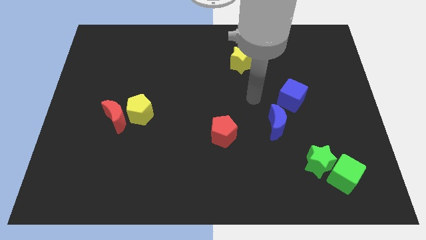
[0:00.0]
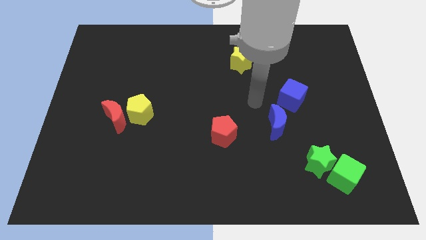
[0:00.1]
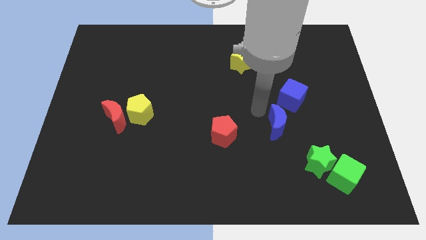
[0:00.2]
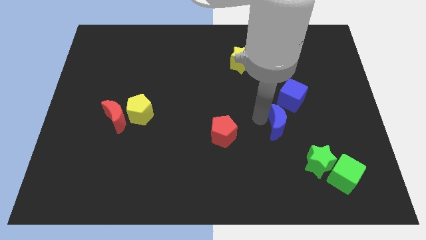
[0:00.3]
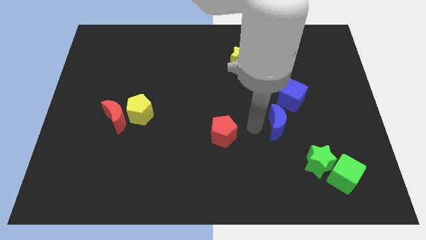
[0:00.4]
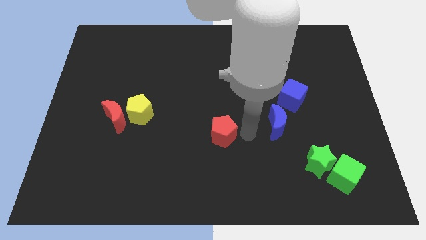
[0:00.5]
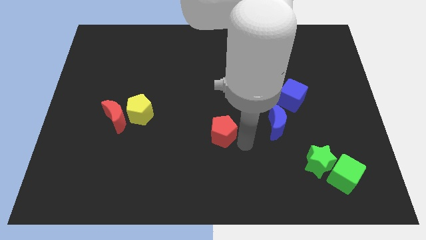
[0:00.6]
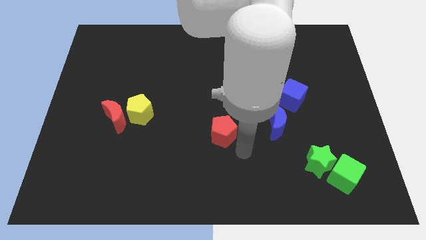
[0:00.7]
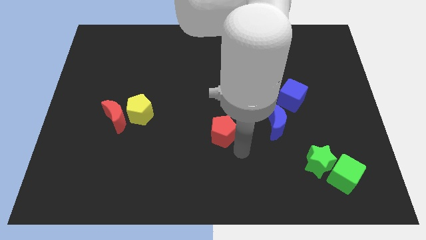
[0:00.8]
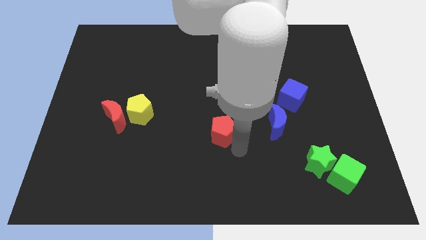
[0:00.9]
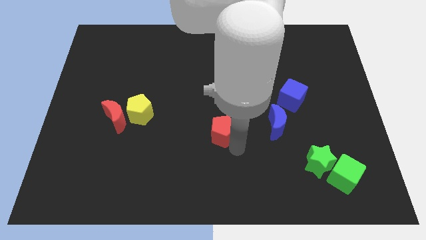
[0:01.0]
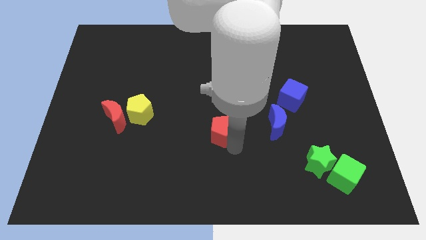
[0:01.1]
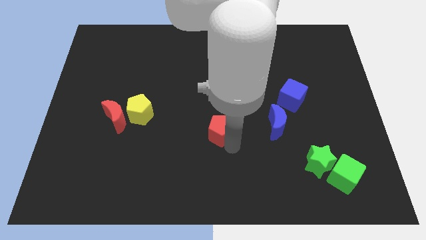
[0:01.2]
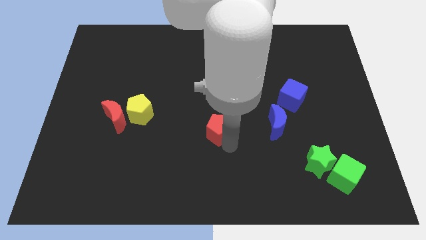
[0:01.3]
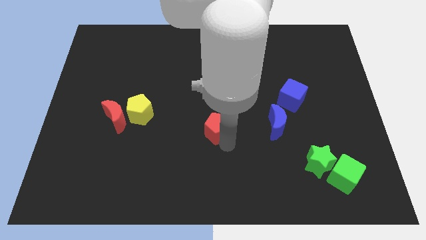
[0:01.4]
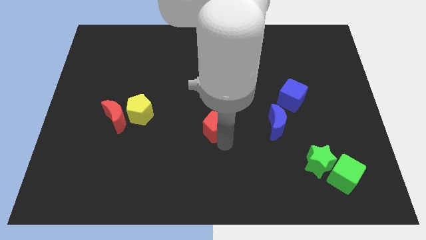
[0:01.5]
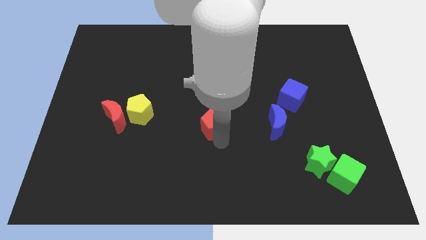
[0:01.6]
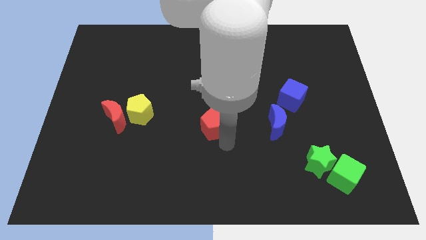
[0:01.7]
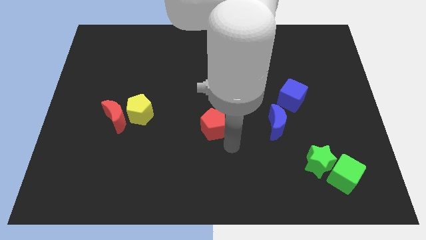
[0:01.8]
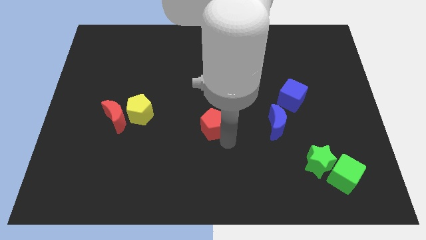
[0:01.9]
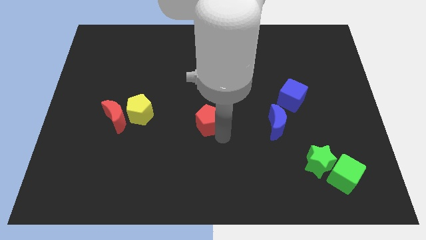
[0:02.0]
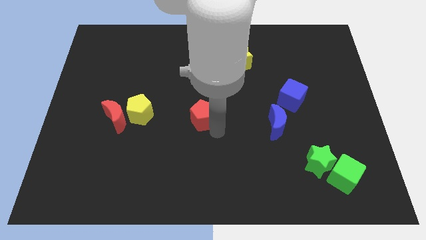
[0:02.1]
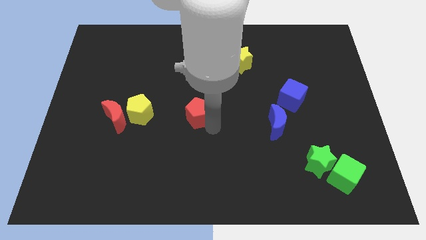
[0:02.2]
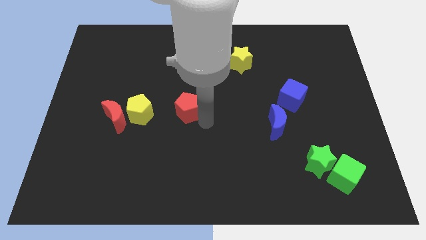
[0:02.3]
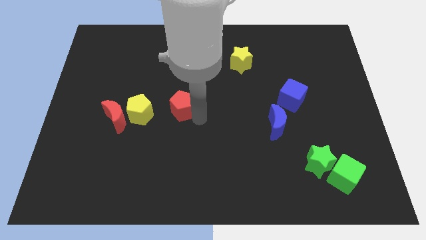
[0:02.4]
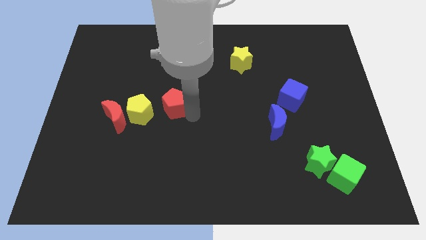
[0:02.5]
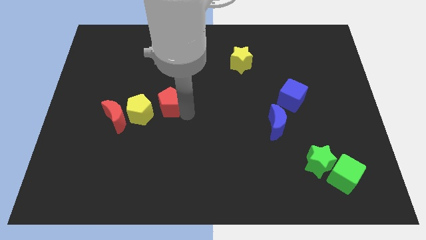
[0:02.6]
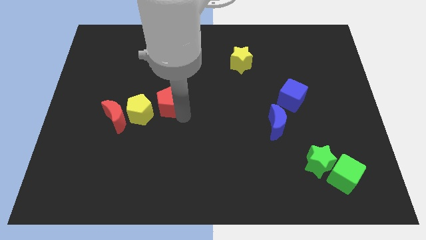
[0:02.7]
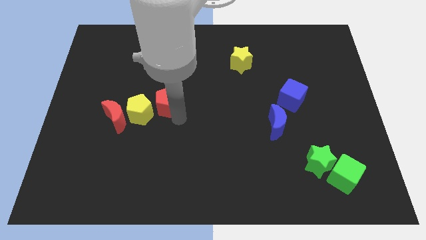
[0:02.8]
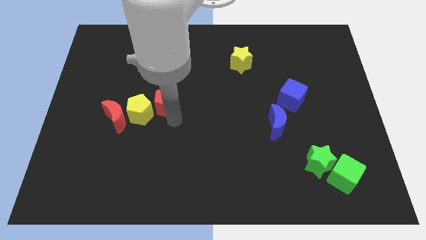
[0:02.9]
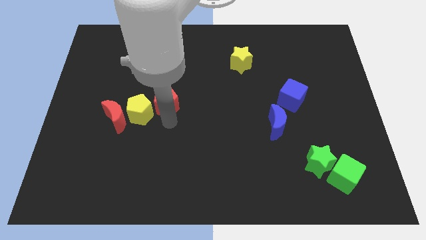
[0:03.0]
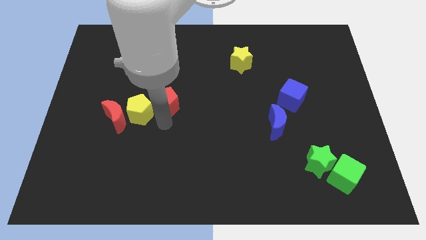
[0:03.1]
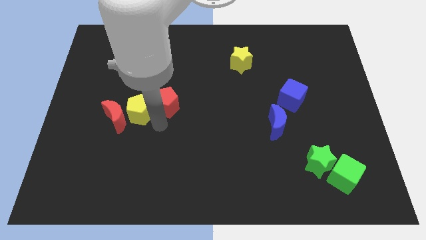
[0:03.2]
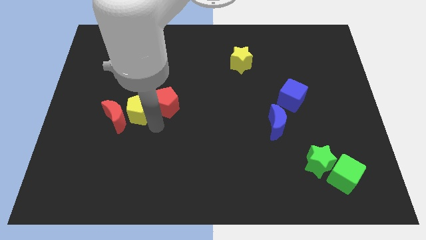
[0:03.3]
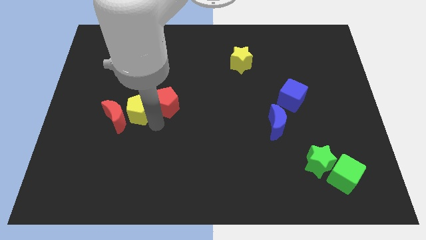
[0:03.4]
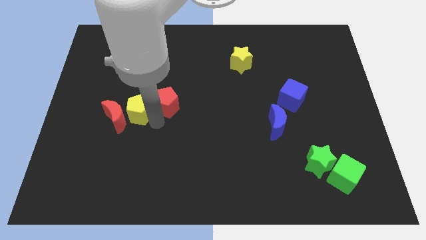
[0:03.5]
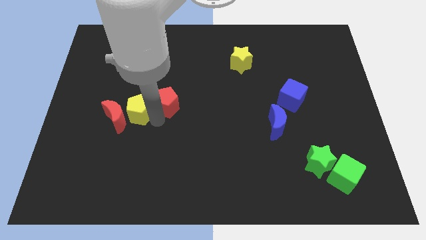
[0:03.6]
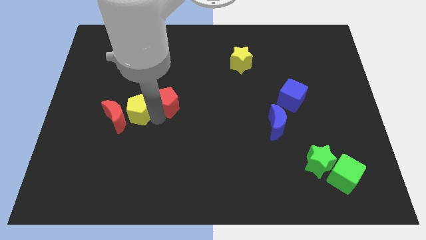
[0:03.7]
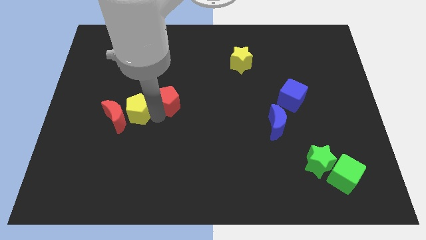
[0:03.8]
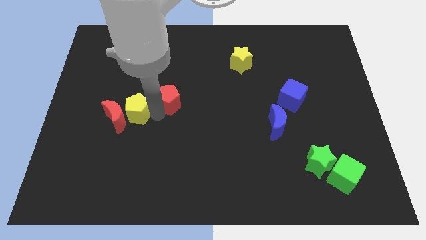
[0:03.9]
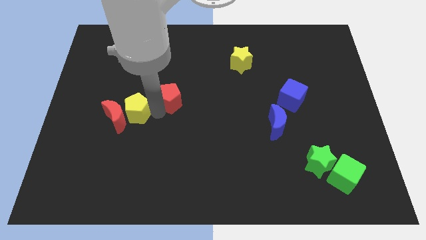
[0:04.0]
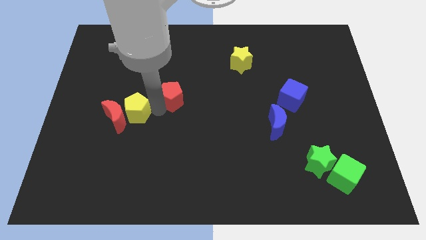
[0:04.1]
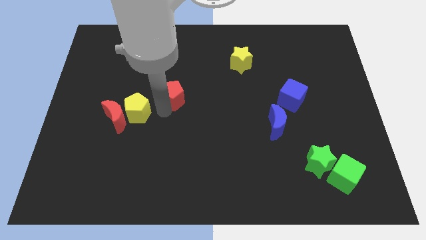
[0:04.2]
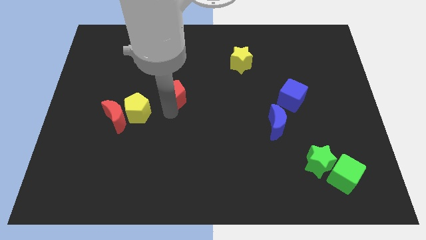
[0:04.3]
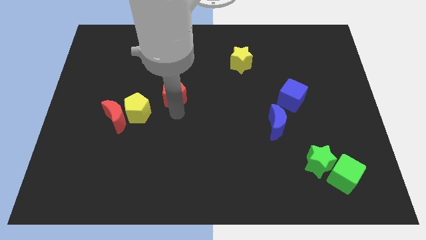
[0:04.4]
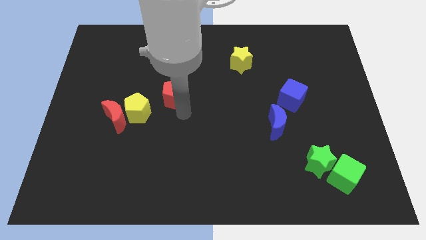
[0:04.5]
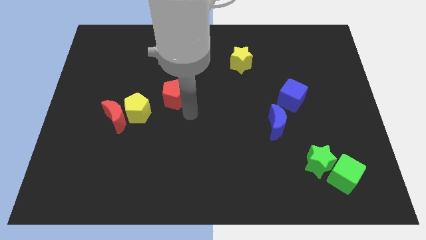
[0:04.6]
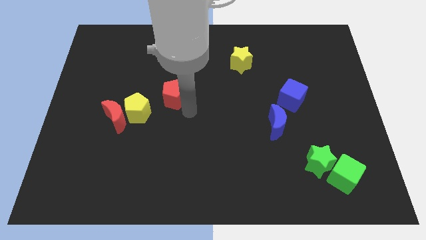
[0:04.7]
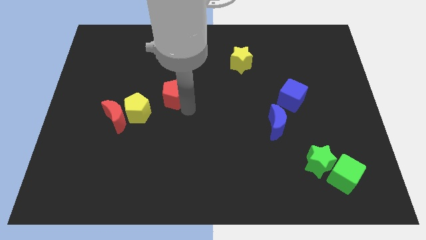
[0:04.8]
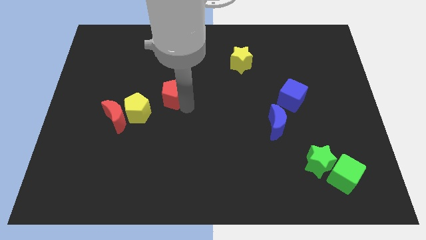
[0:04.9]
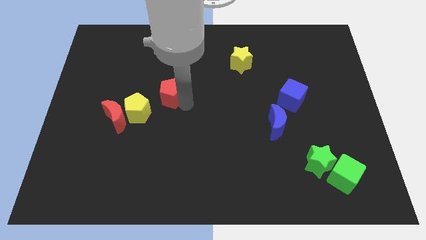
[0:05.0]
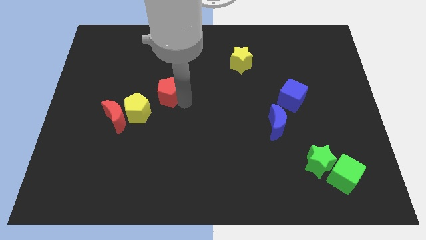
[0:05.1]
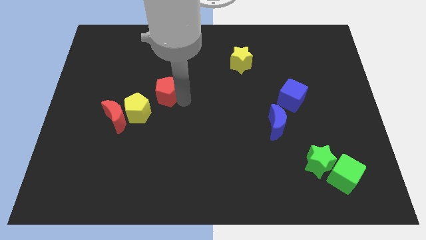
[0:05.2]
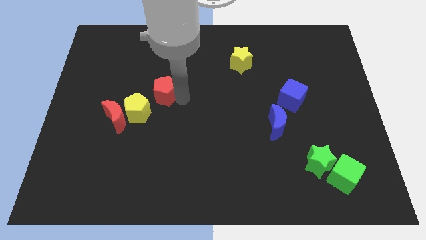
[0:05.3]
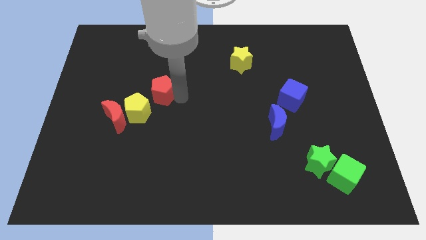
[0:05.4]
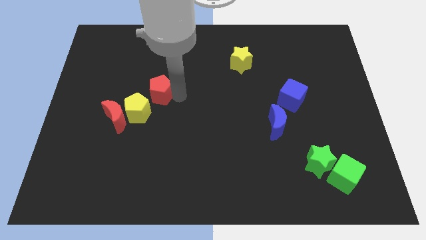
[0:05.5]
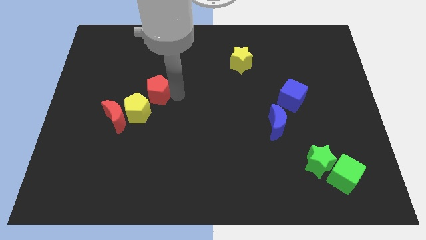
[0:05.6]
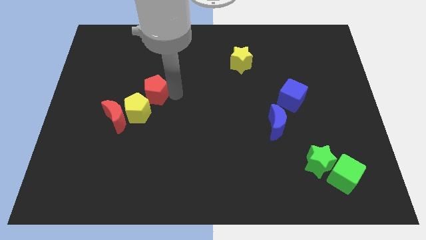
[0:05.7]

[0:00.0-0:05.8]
slide the red pentagon diagonally up and to the left

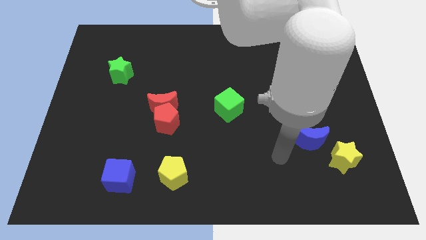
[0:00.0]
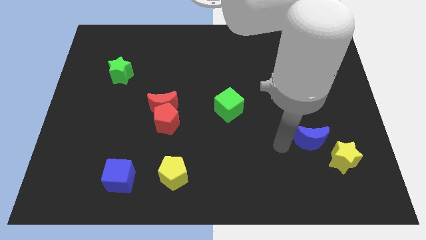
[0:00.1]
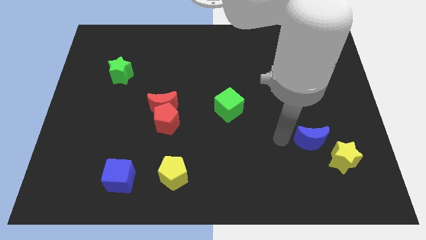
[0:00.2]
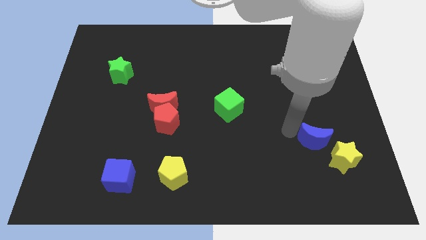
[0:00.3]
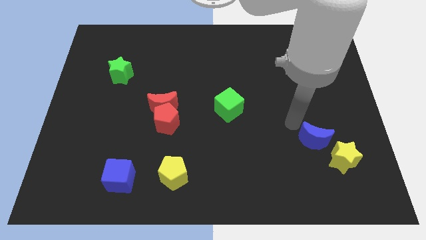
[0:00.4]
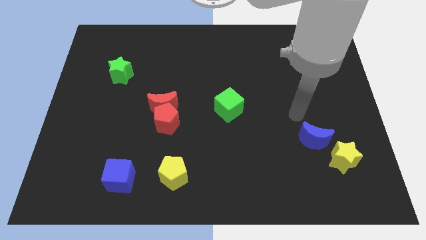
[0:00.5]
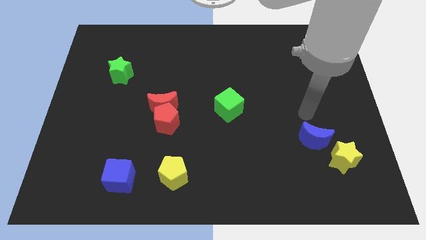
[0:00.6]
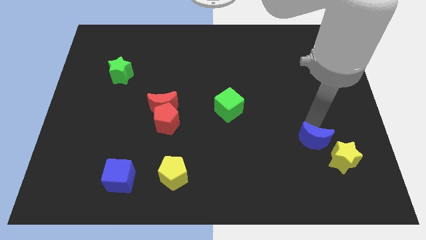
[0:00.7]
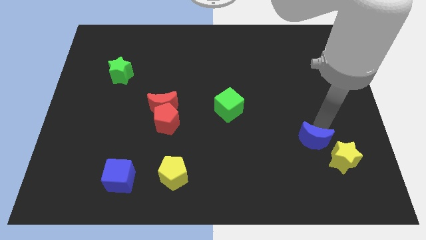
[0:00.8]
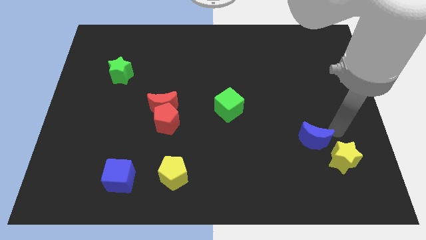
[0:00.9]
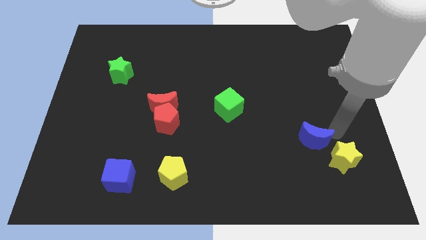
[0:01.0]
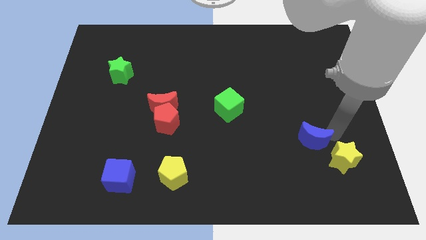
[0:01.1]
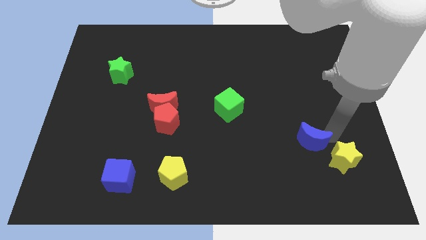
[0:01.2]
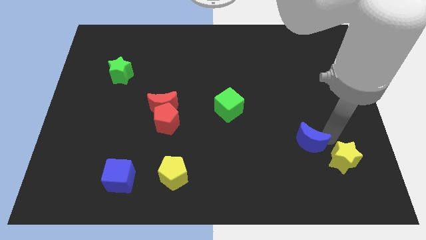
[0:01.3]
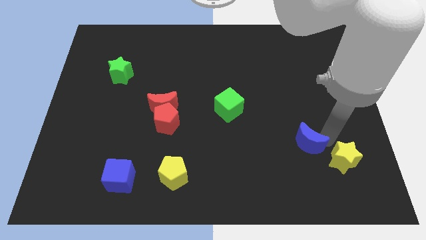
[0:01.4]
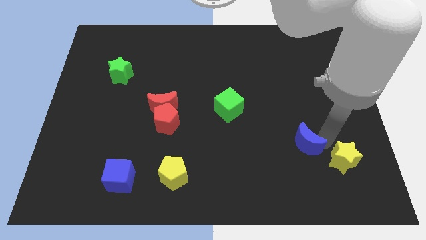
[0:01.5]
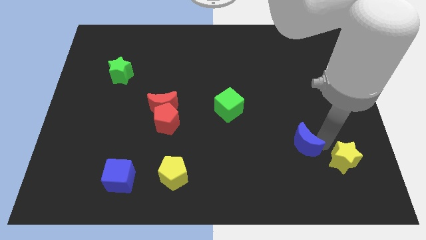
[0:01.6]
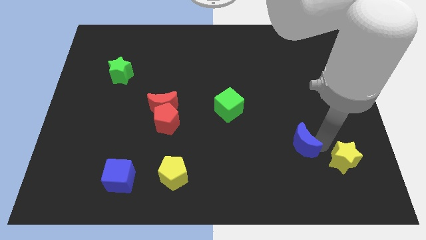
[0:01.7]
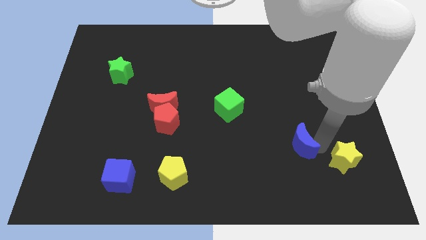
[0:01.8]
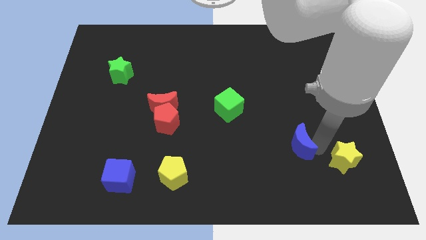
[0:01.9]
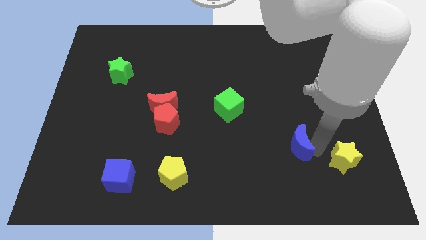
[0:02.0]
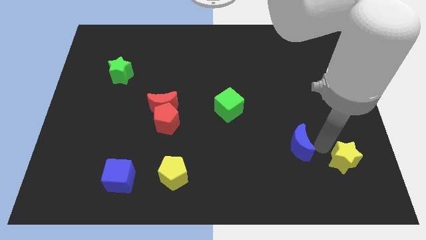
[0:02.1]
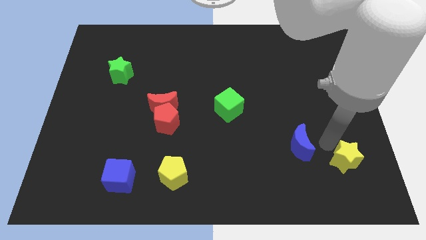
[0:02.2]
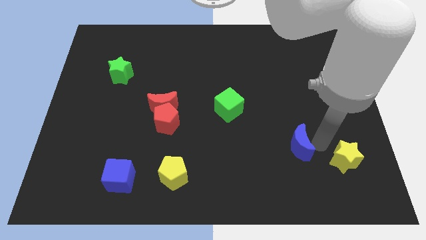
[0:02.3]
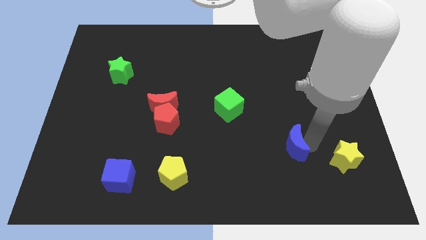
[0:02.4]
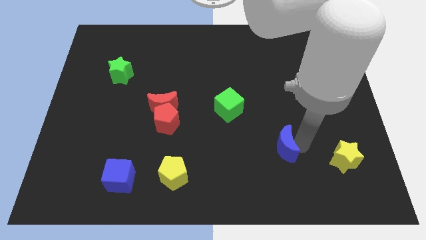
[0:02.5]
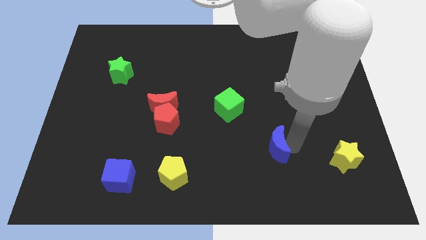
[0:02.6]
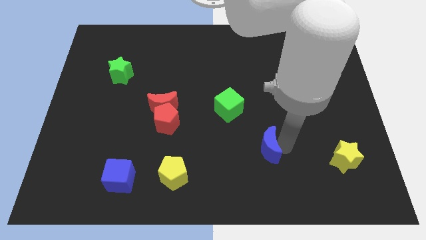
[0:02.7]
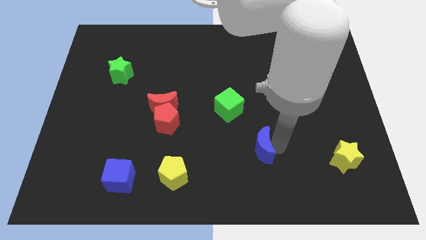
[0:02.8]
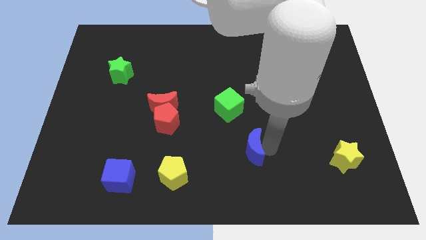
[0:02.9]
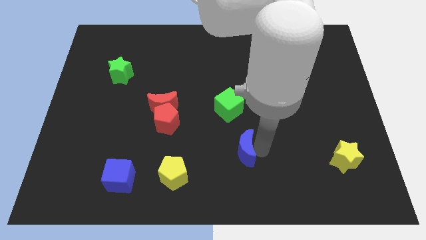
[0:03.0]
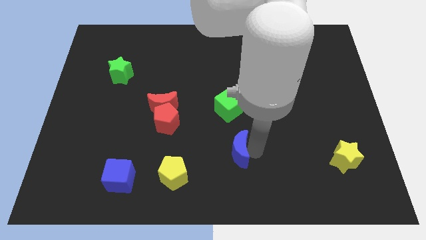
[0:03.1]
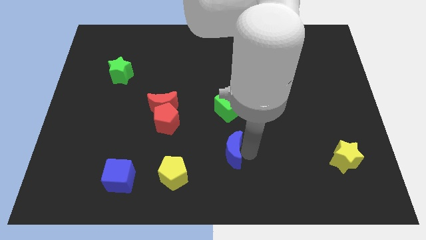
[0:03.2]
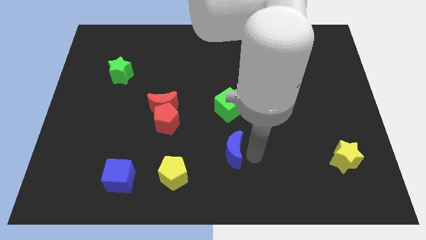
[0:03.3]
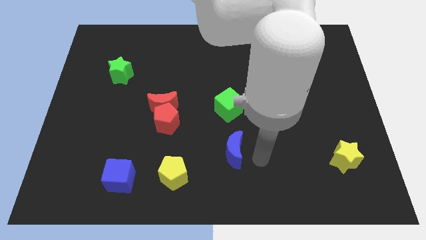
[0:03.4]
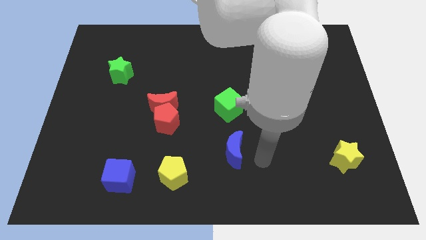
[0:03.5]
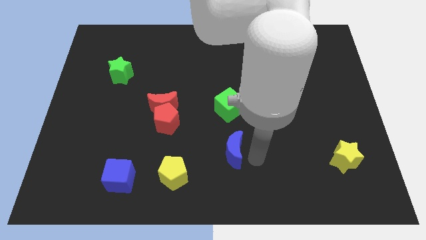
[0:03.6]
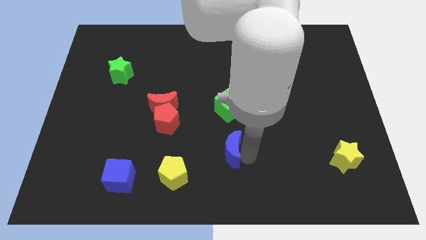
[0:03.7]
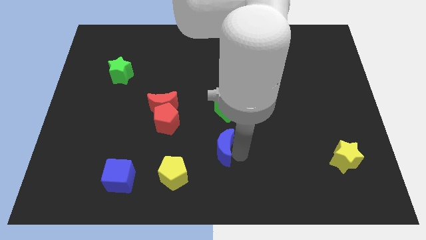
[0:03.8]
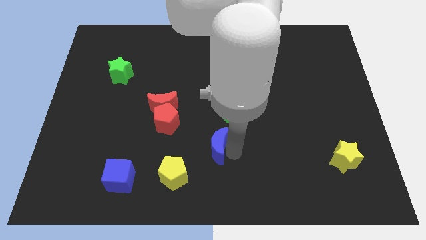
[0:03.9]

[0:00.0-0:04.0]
move the blue moon left
